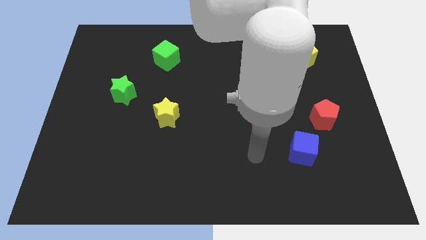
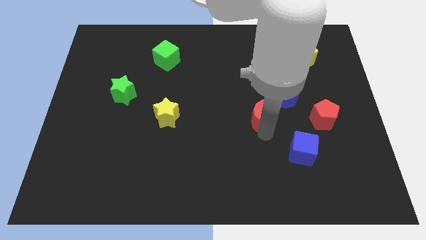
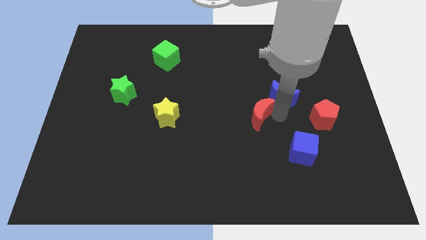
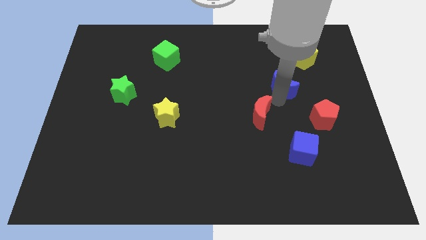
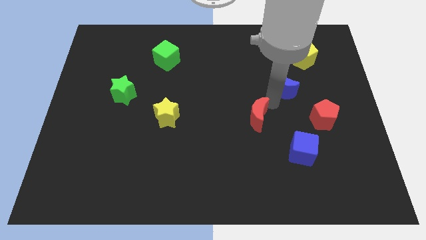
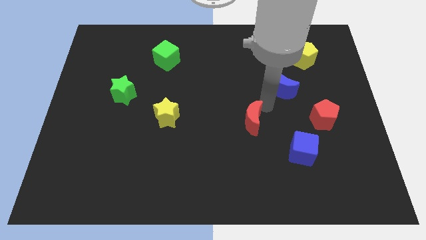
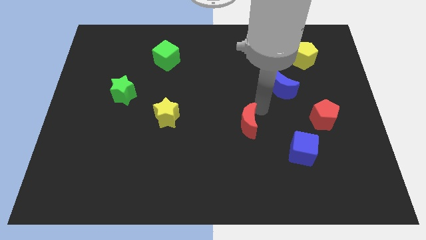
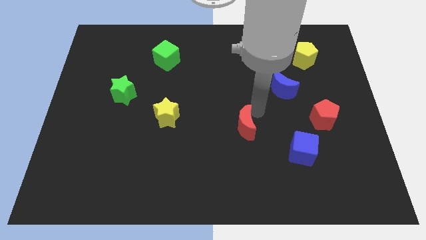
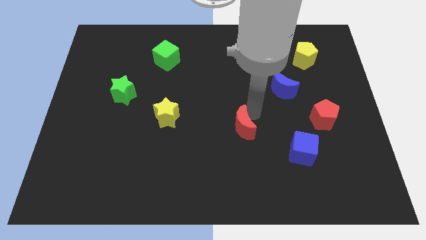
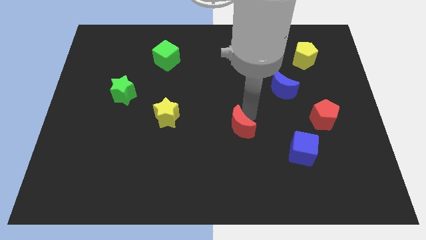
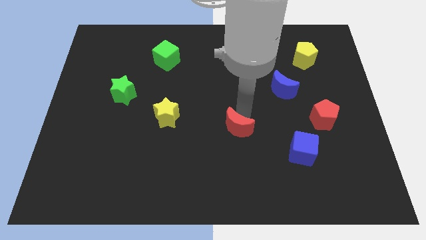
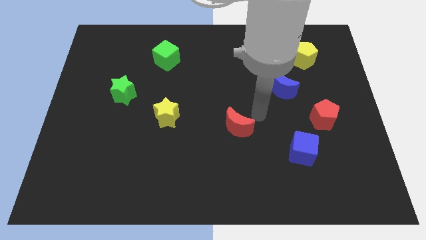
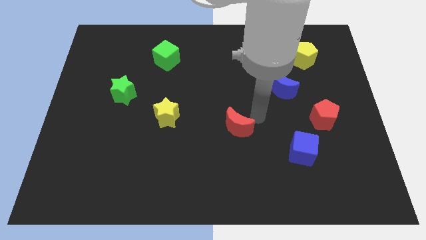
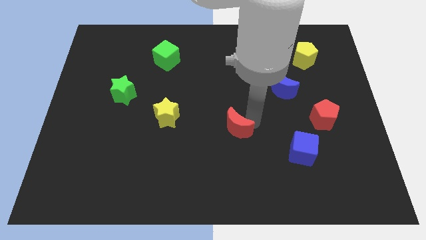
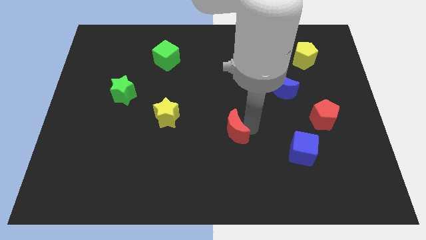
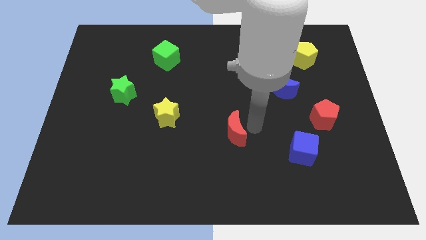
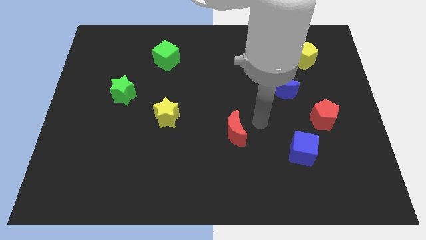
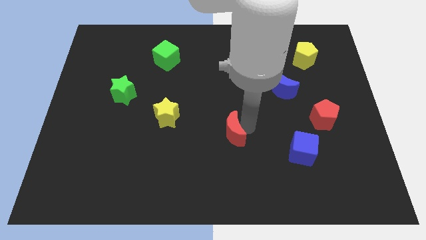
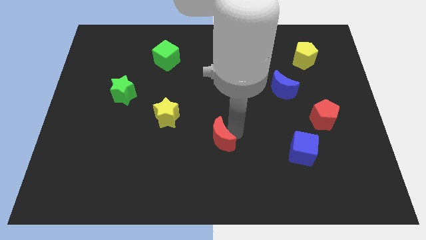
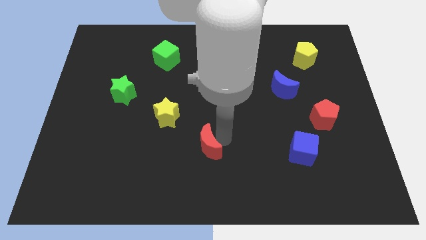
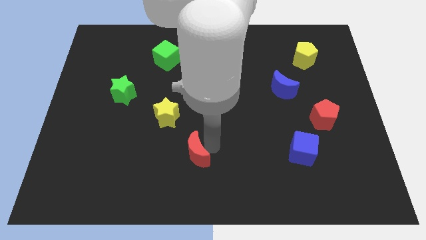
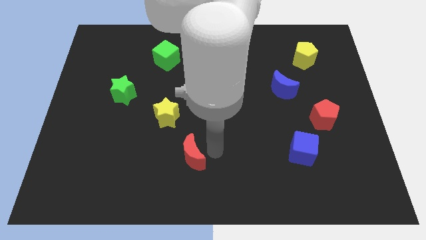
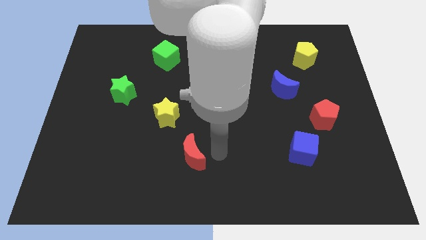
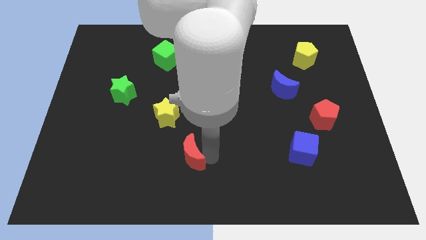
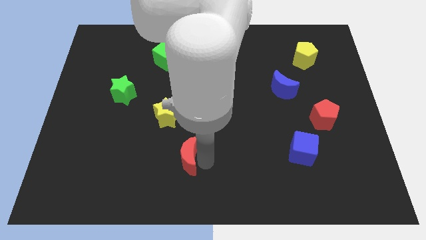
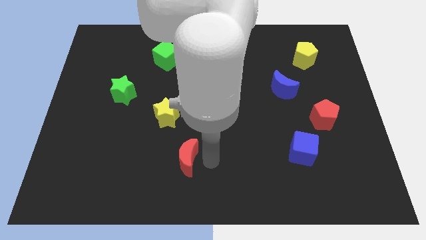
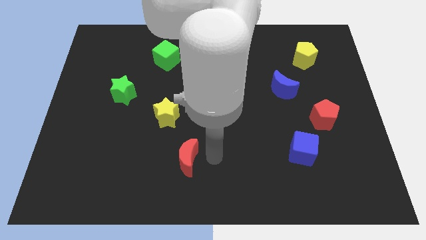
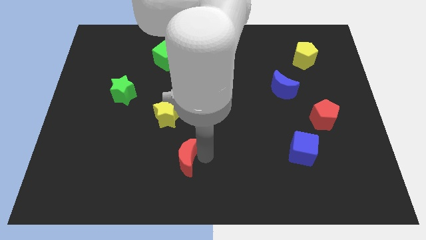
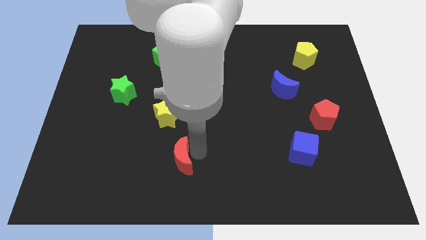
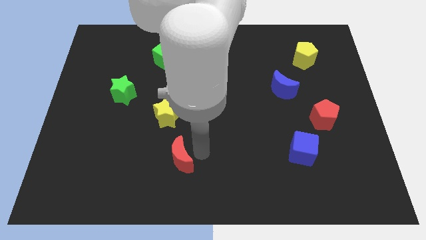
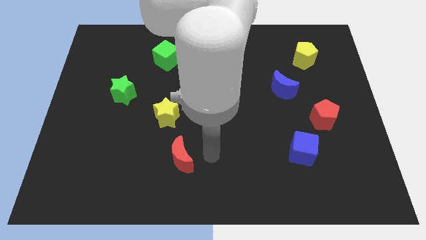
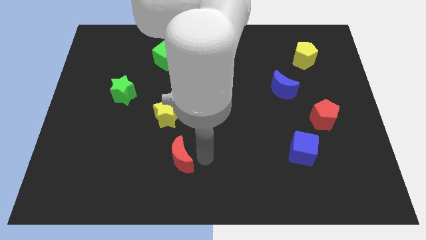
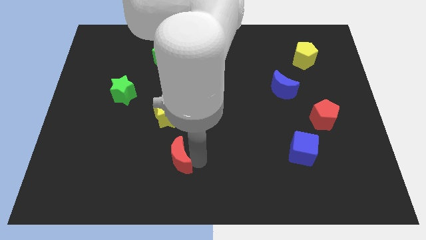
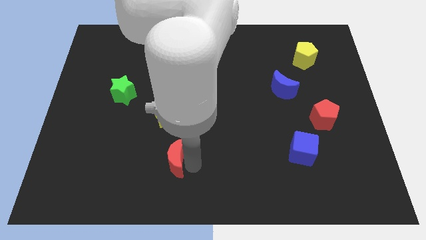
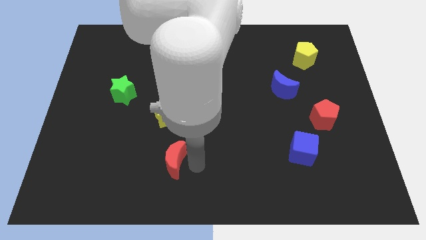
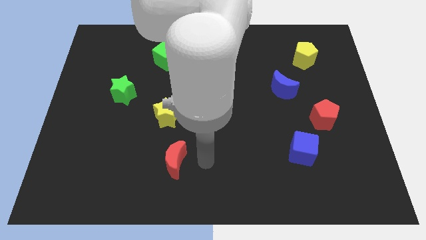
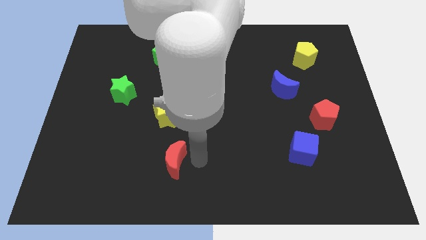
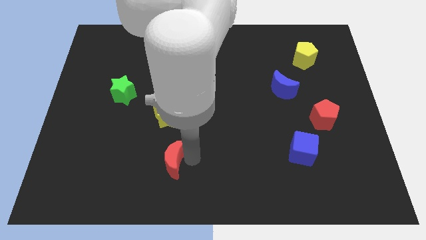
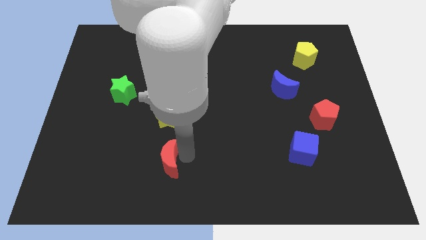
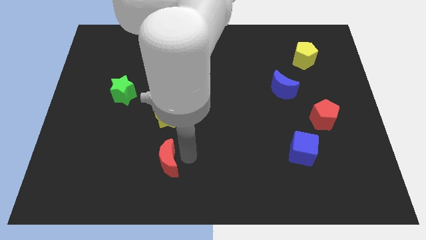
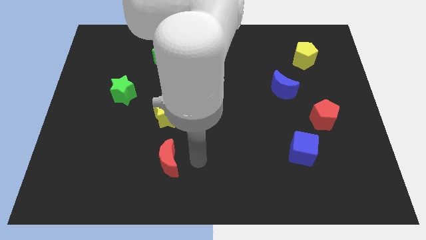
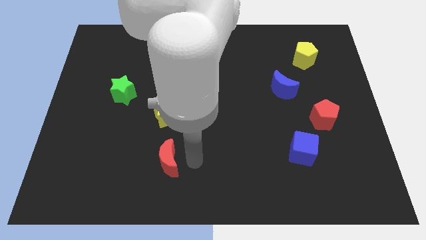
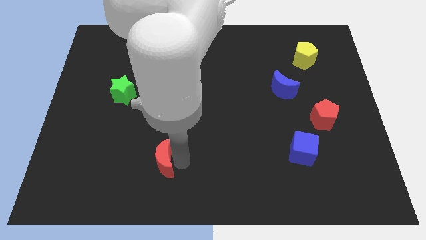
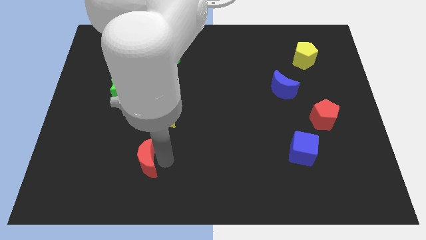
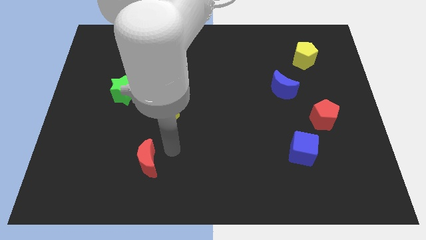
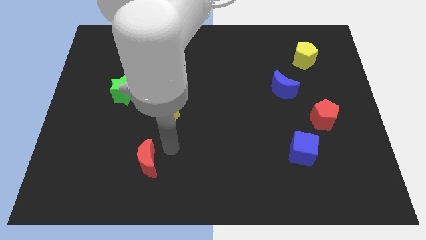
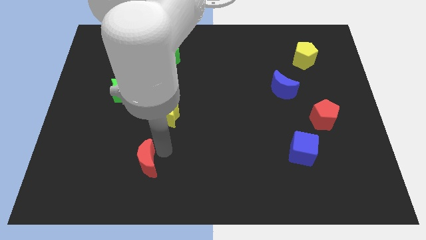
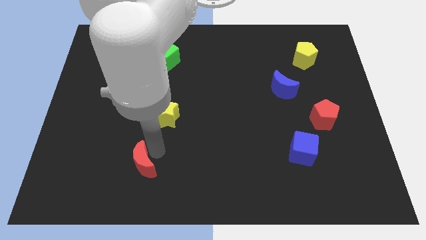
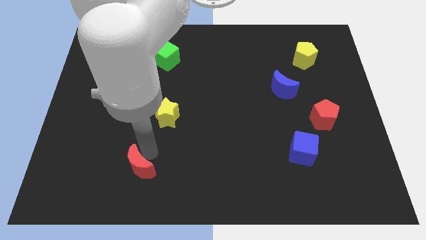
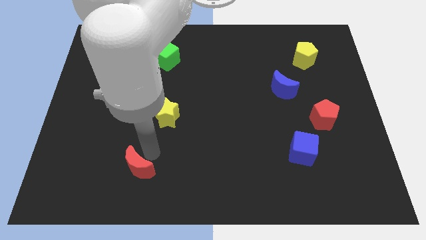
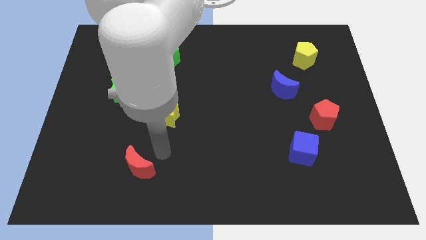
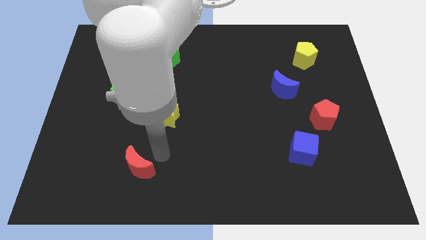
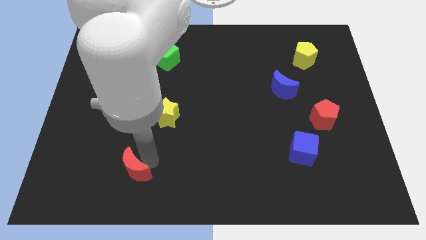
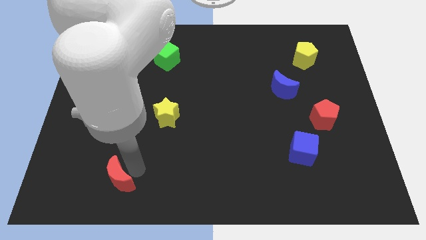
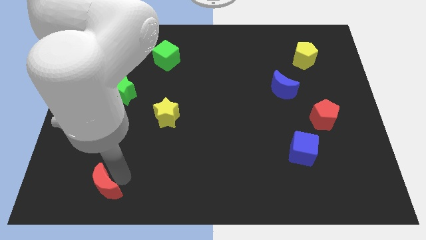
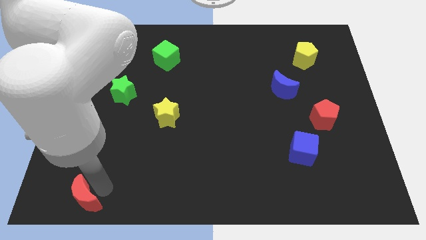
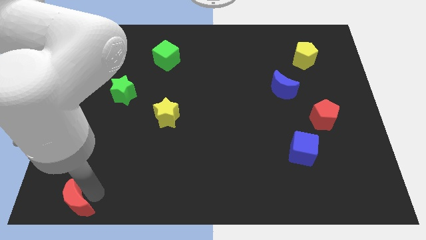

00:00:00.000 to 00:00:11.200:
slide the red moon to the lower left corner

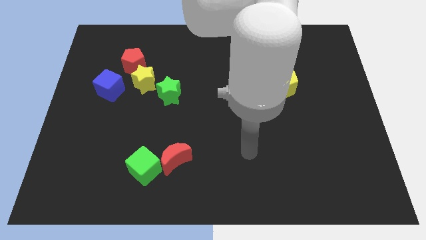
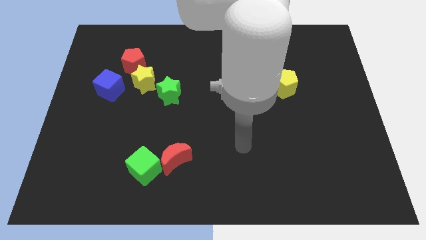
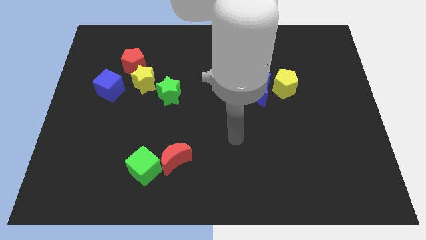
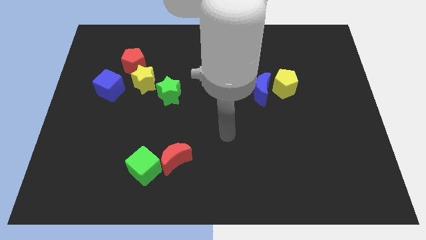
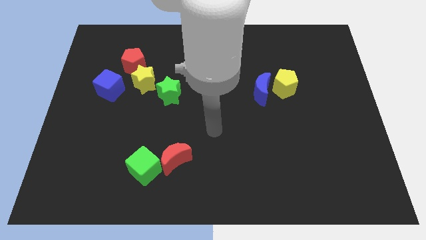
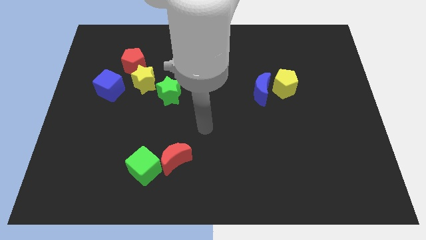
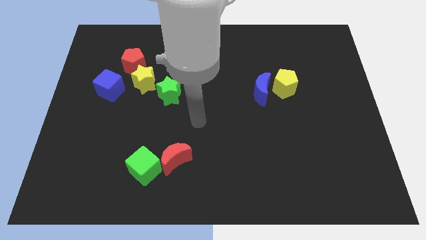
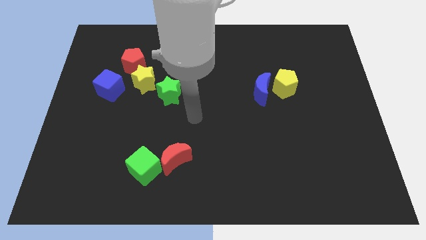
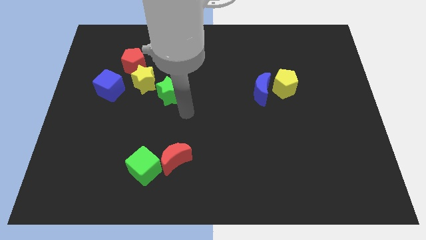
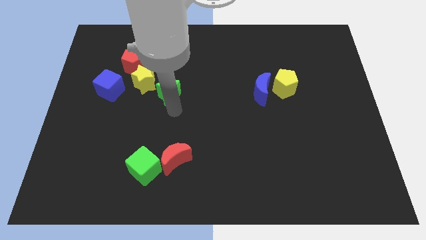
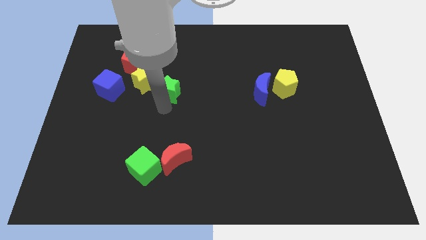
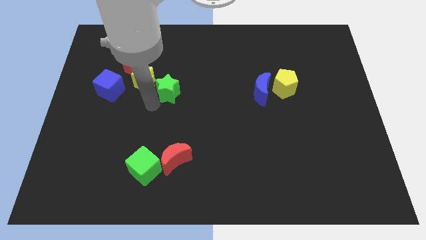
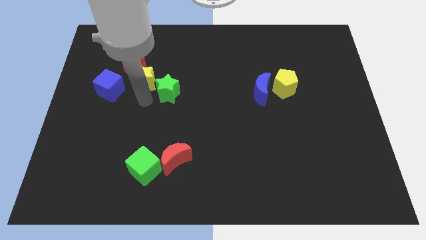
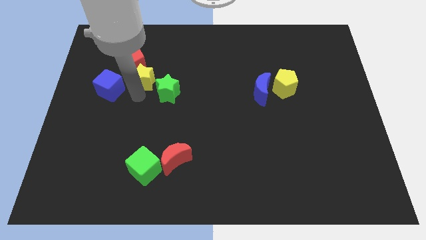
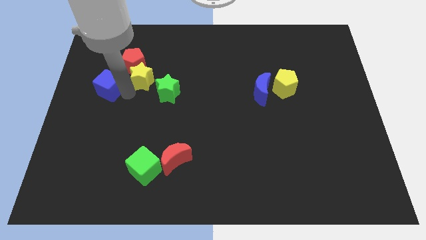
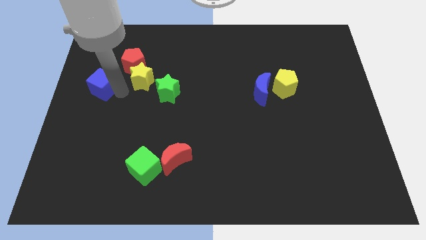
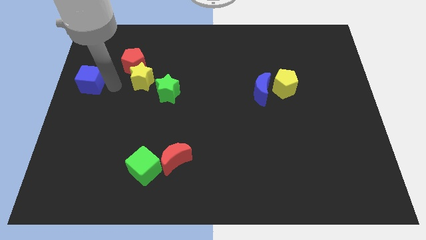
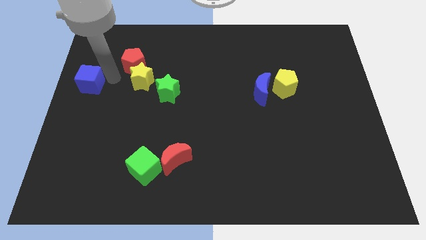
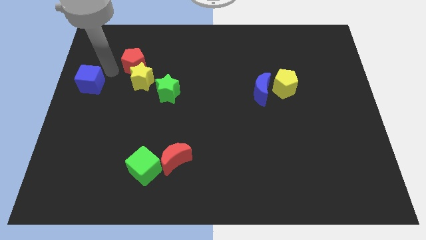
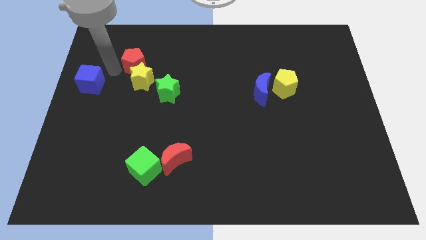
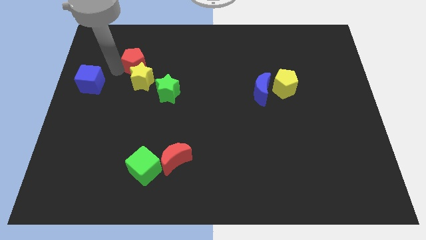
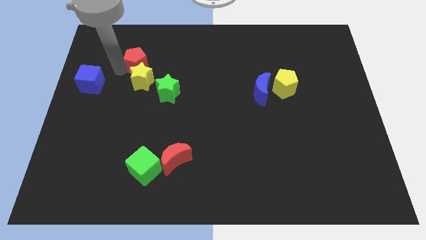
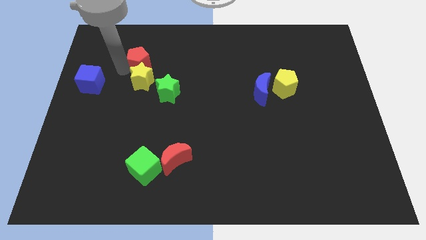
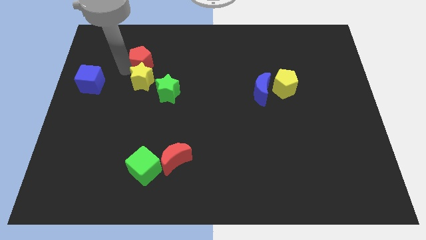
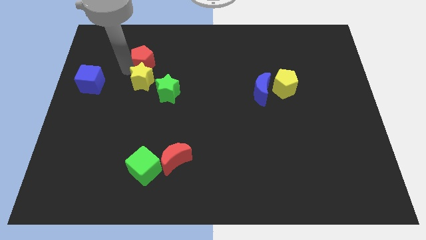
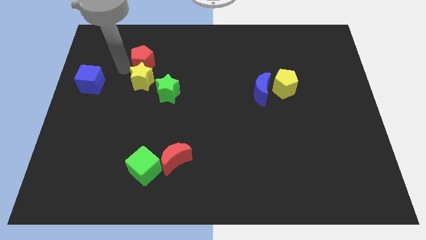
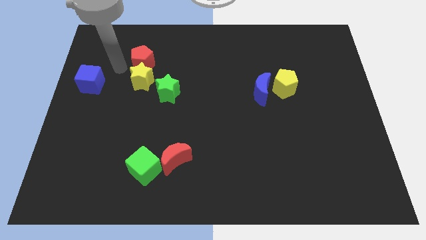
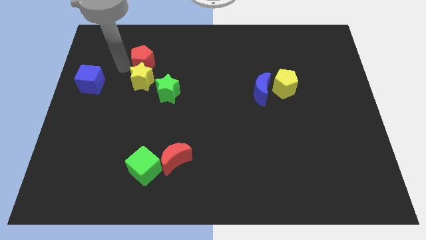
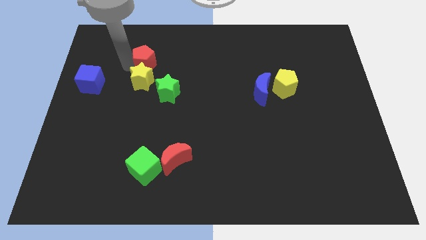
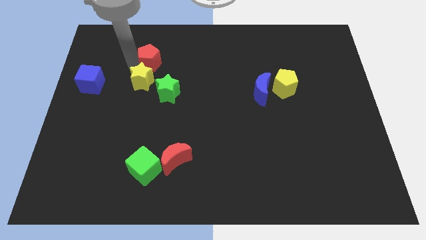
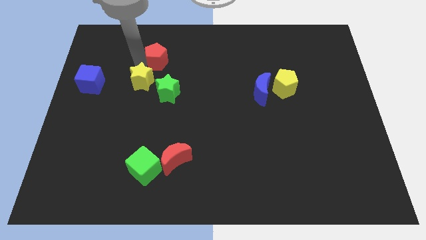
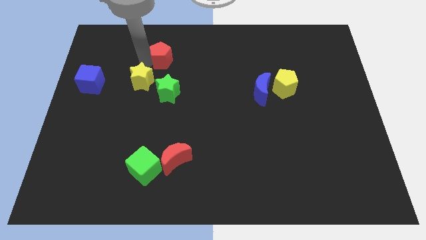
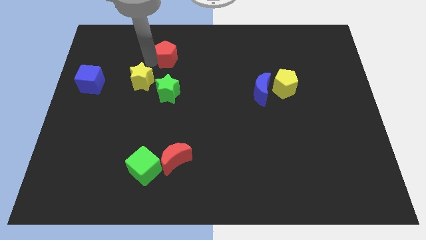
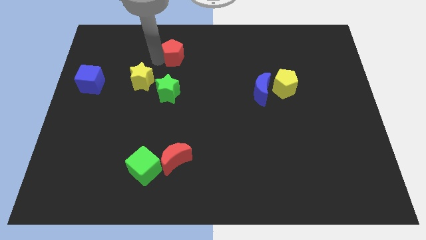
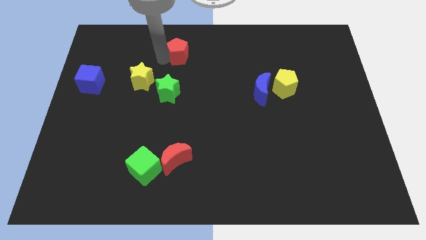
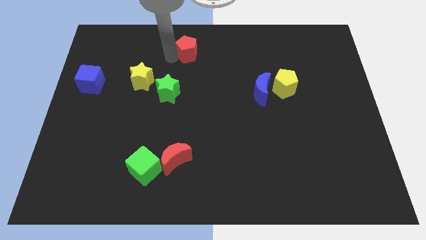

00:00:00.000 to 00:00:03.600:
move the red pentagon to the top
